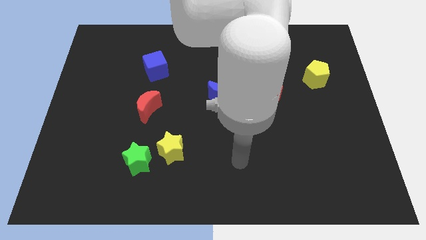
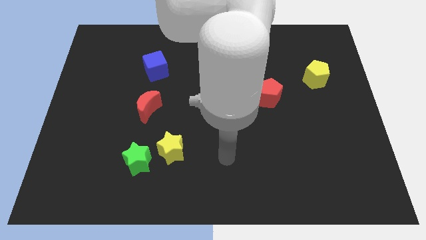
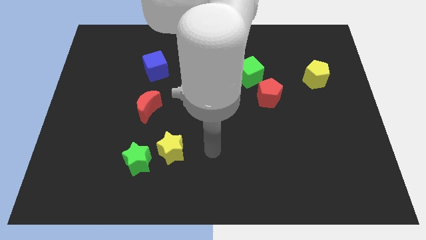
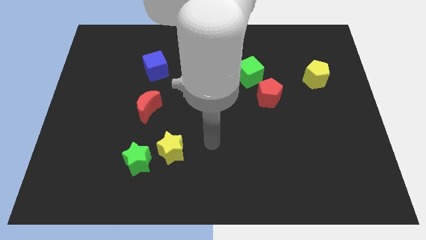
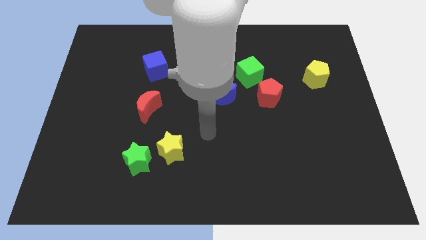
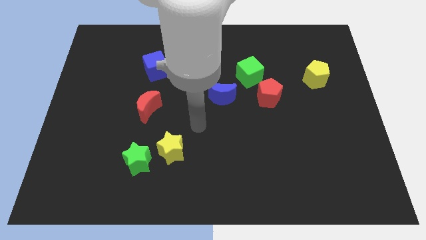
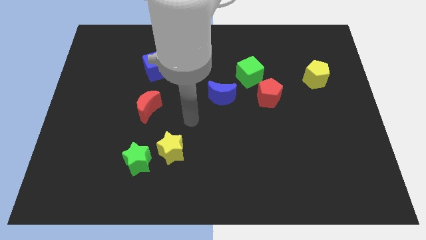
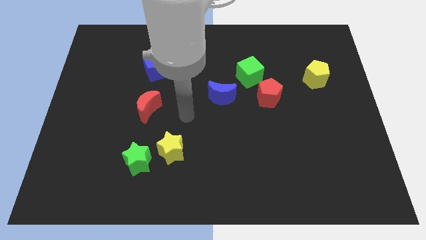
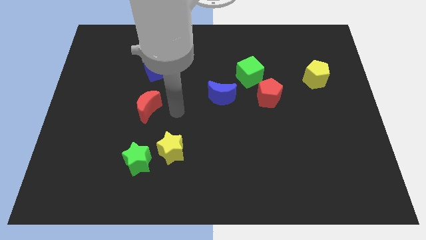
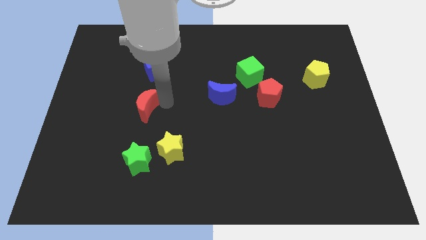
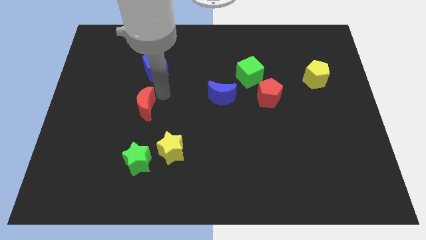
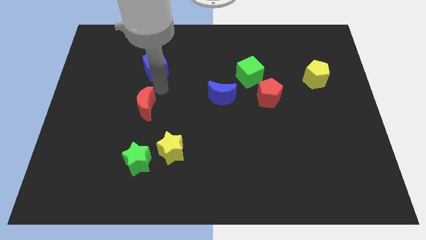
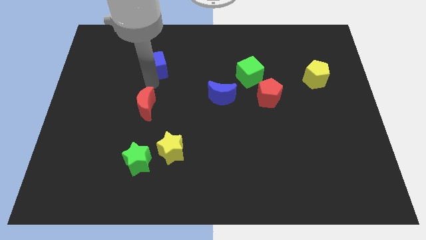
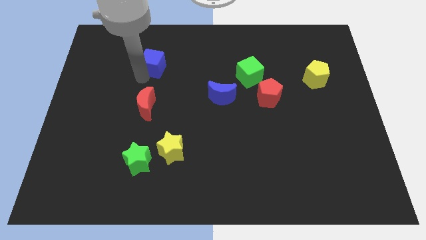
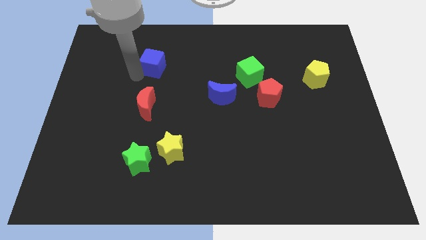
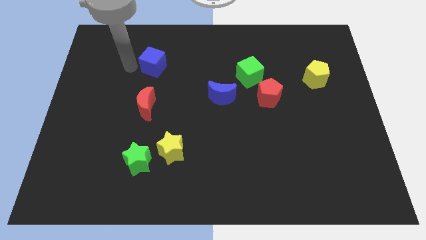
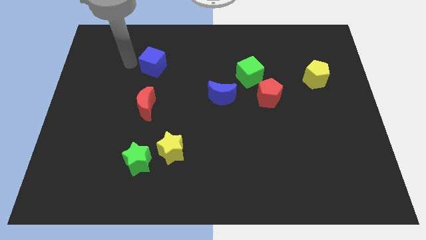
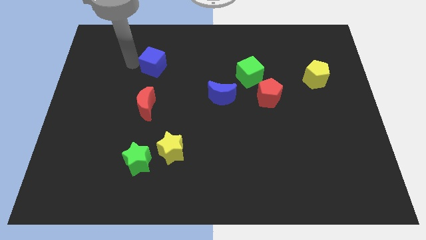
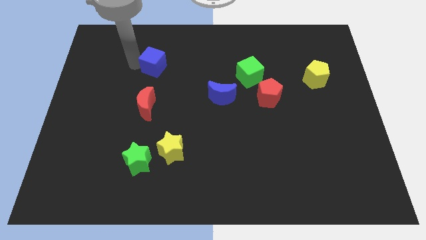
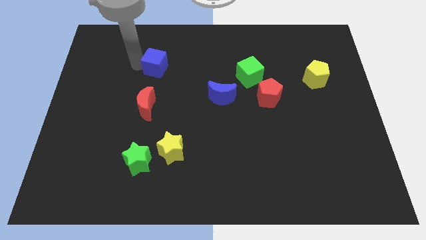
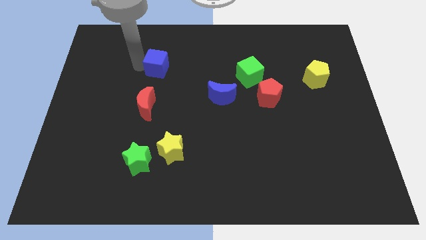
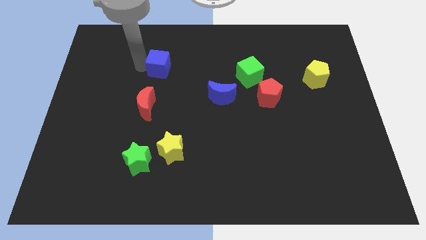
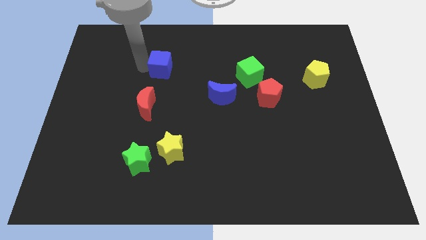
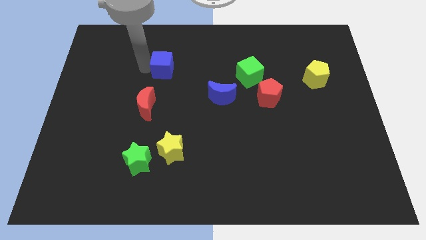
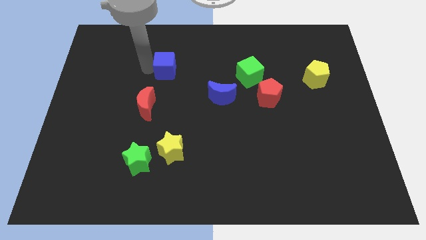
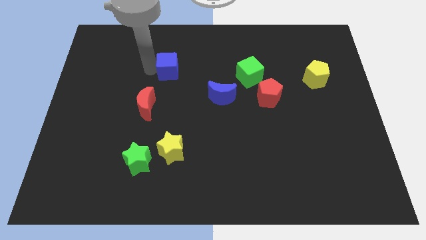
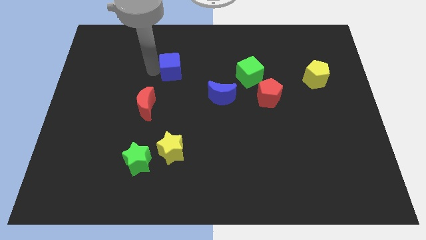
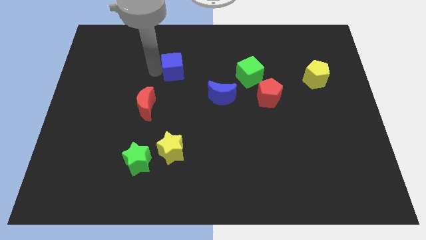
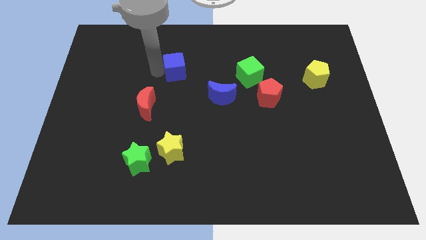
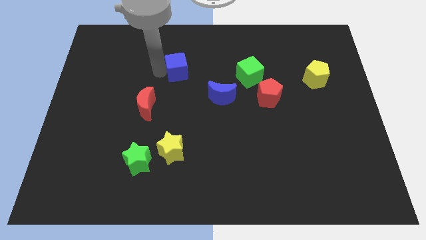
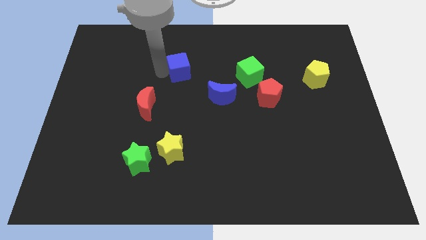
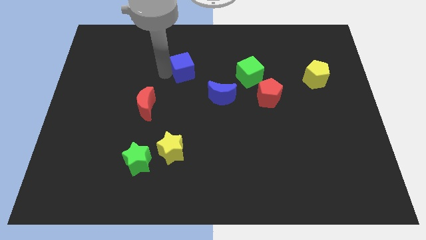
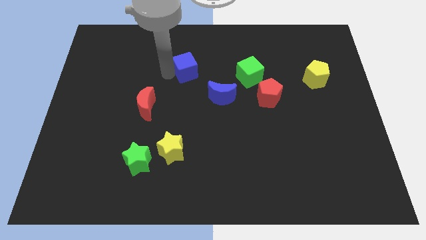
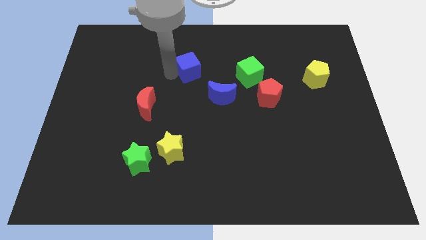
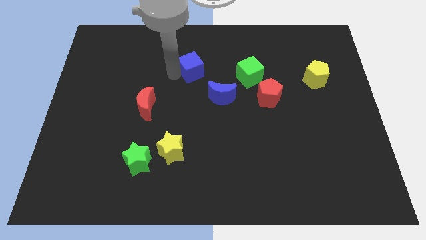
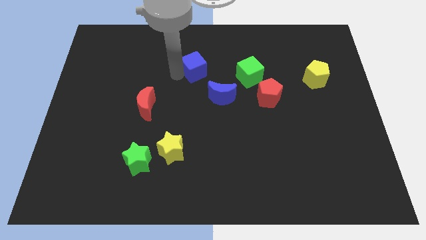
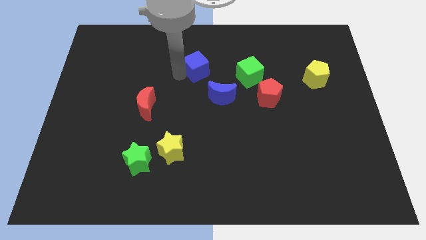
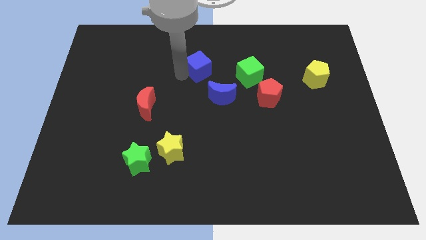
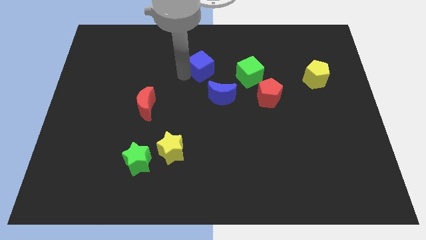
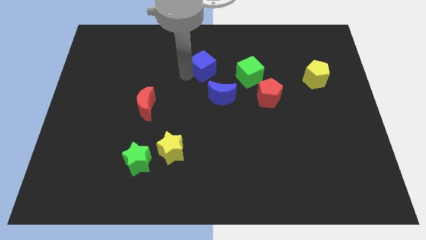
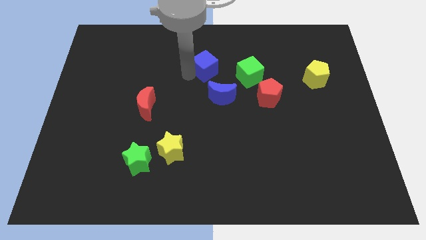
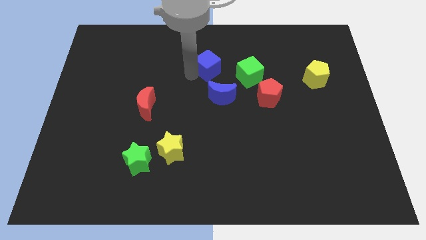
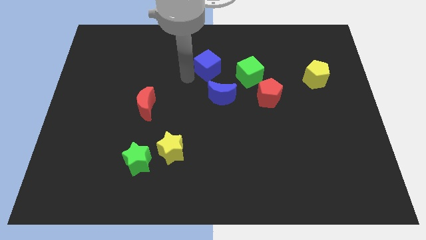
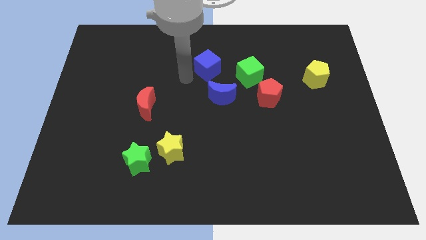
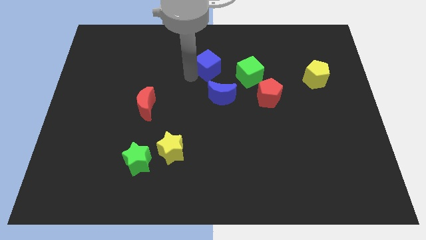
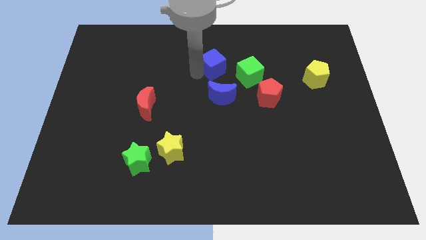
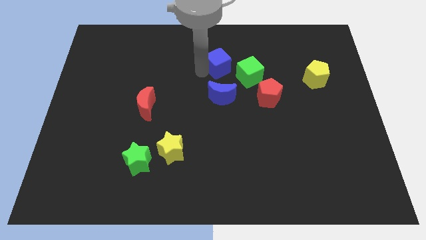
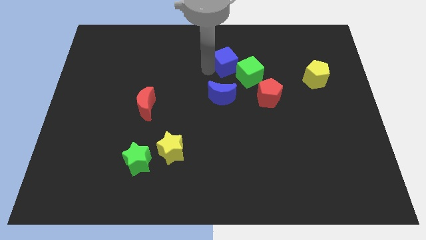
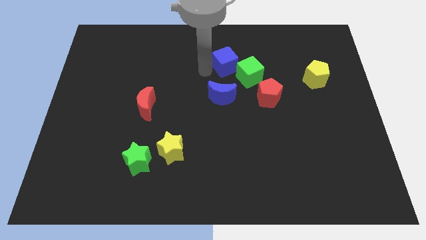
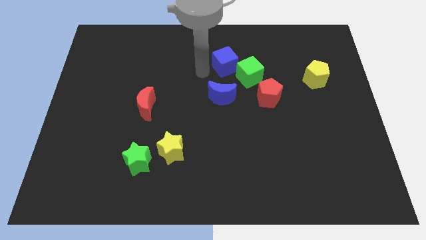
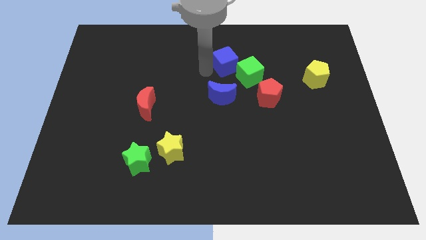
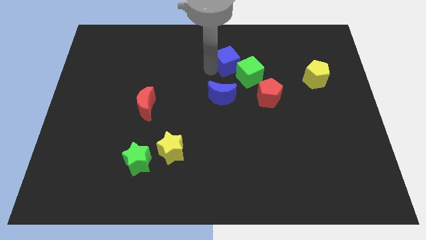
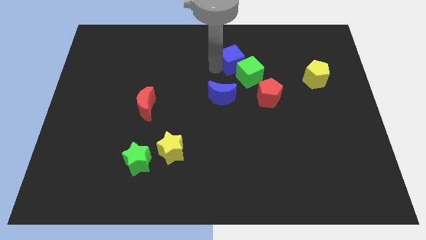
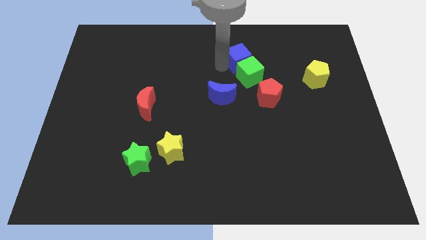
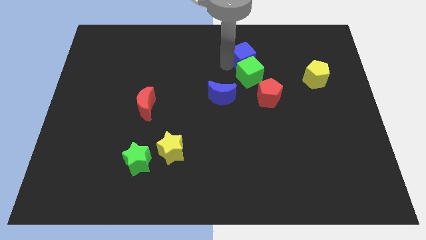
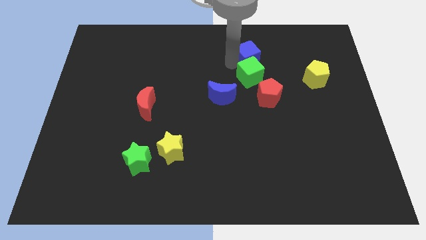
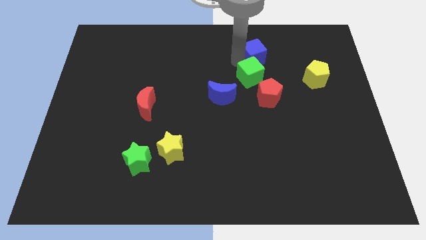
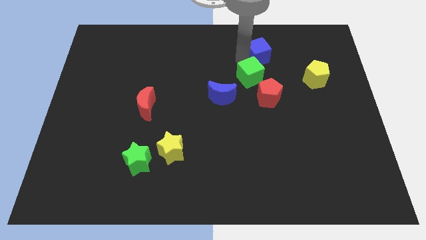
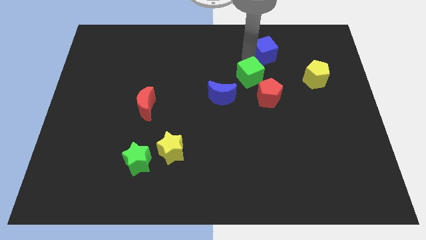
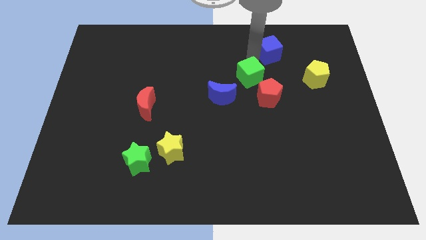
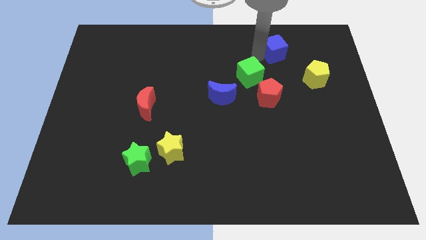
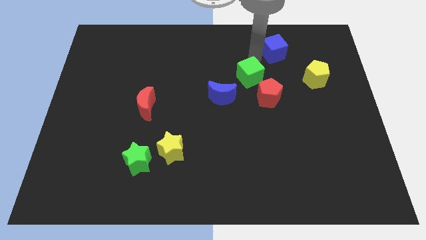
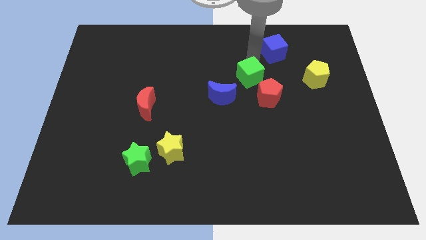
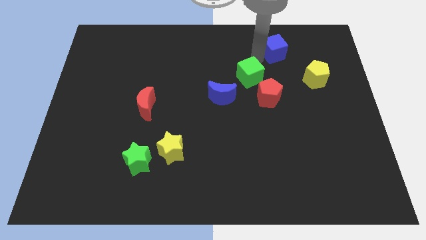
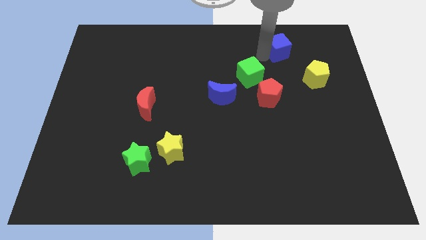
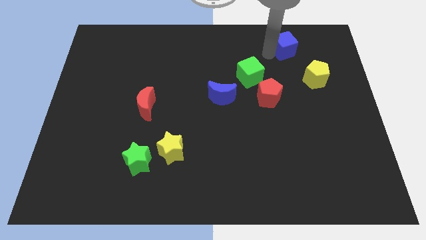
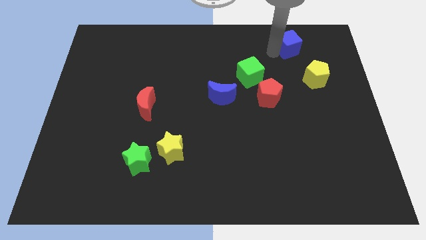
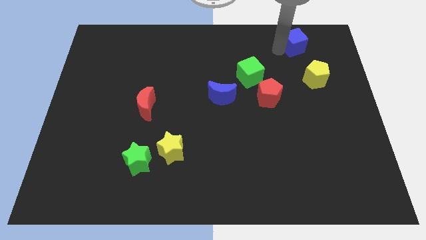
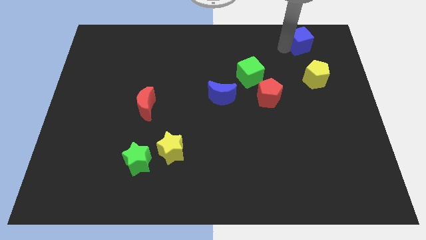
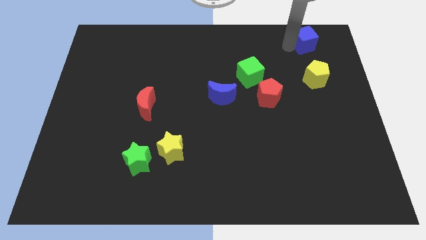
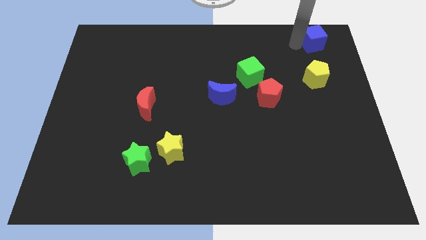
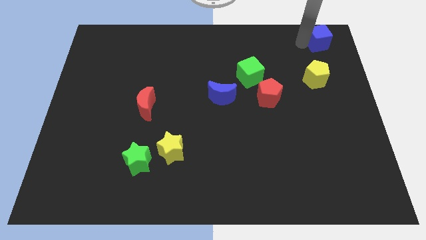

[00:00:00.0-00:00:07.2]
put the blue cube to the top right

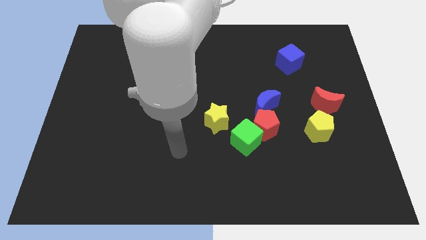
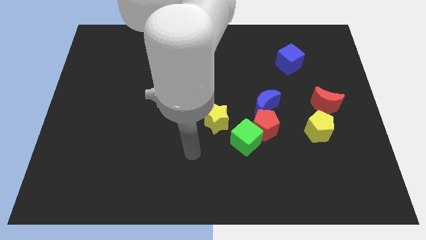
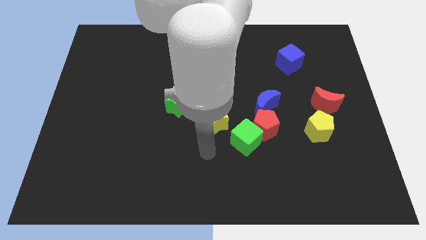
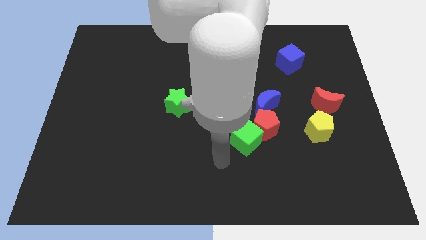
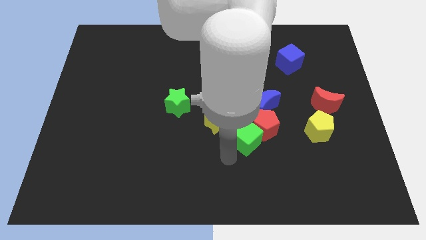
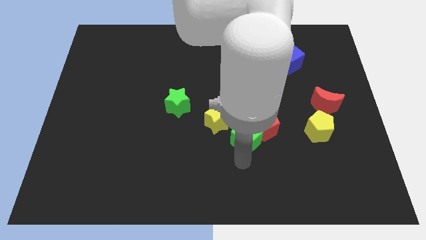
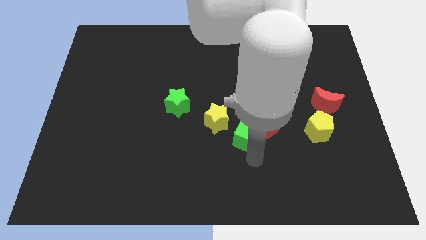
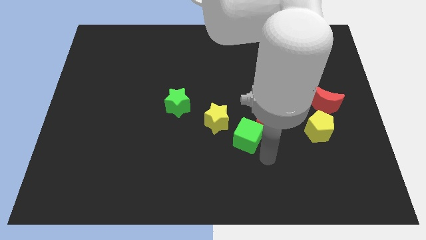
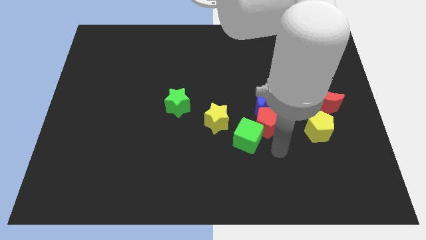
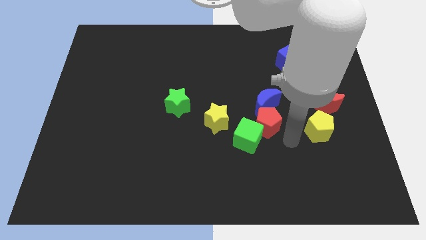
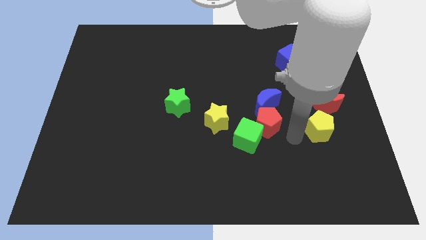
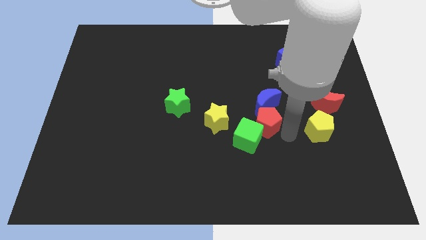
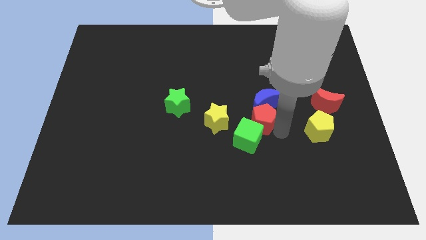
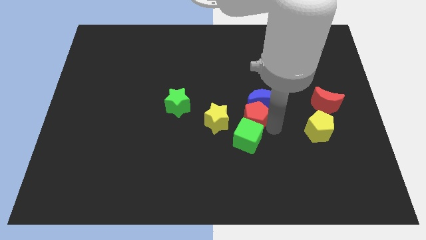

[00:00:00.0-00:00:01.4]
slide the red pentagon to the center of the board
